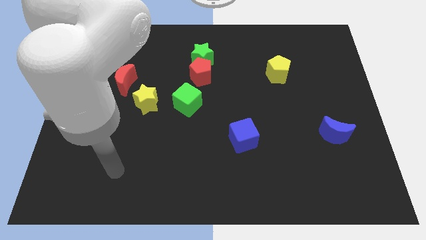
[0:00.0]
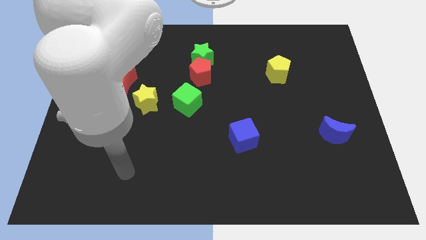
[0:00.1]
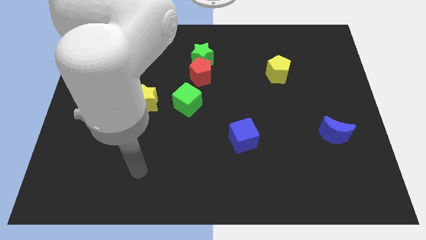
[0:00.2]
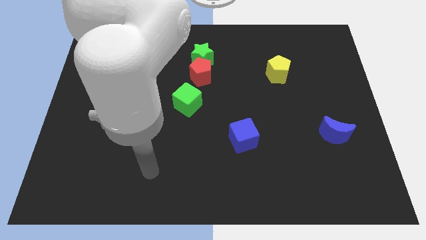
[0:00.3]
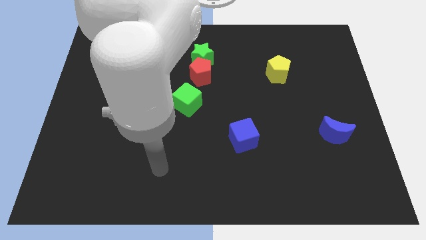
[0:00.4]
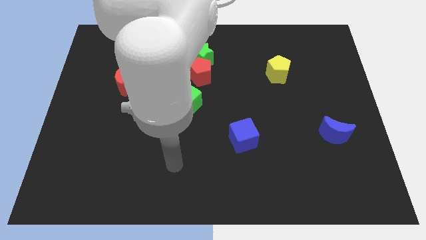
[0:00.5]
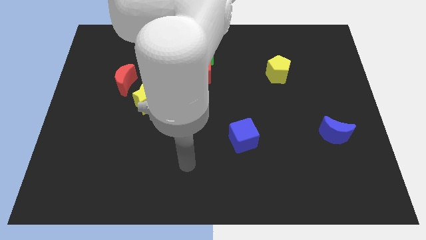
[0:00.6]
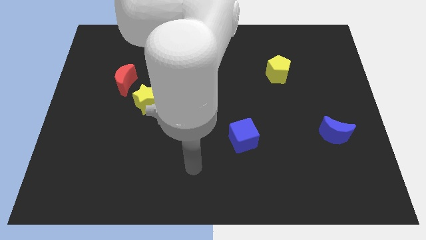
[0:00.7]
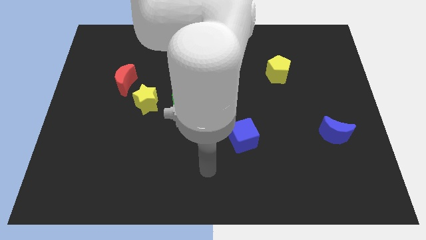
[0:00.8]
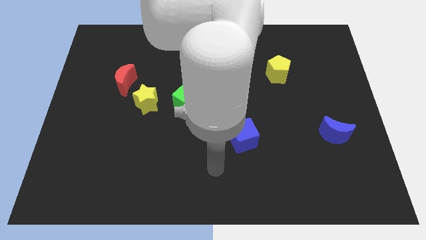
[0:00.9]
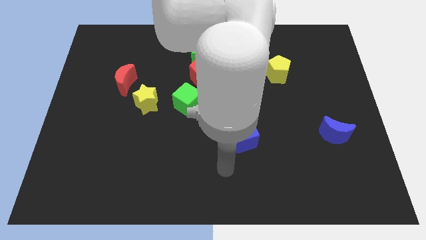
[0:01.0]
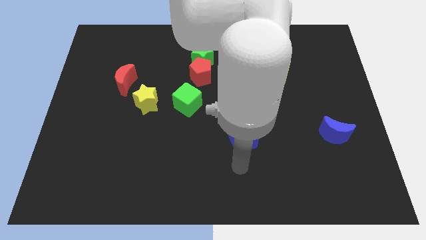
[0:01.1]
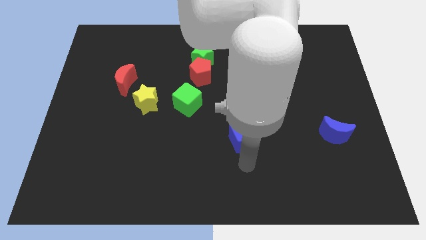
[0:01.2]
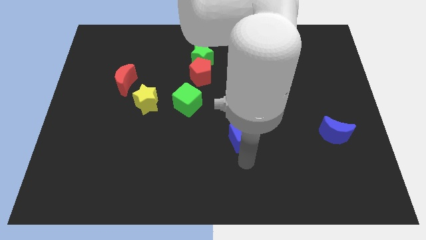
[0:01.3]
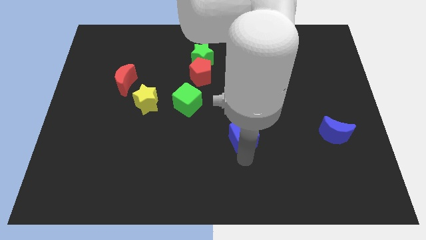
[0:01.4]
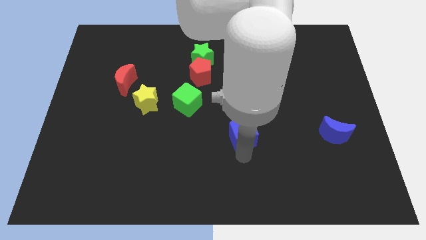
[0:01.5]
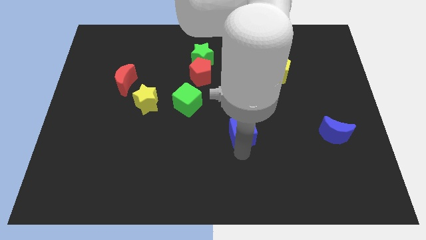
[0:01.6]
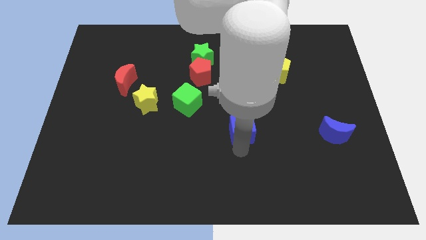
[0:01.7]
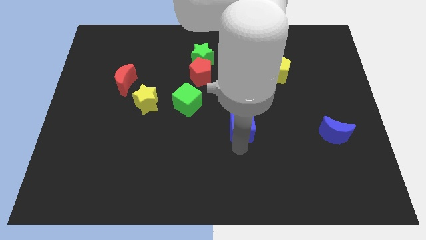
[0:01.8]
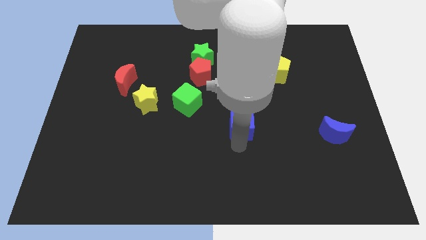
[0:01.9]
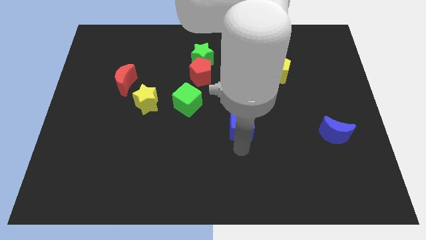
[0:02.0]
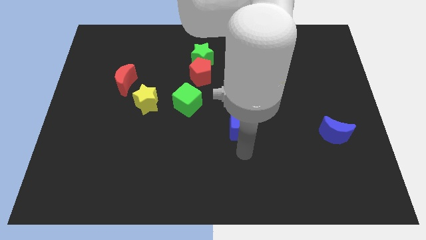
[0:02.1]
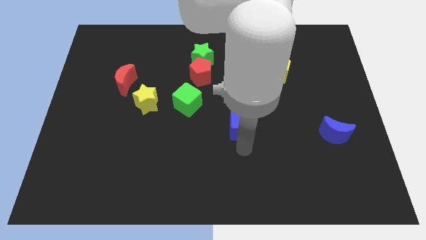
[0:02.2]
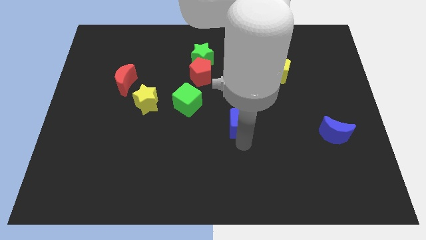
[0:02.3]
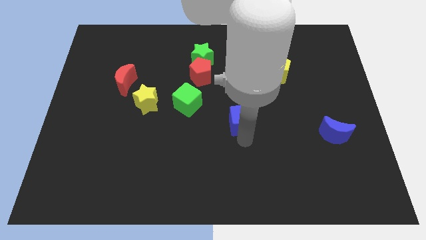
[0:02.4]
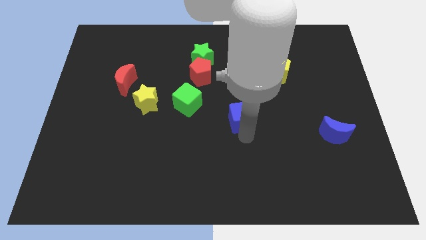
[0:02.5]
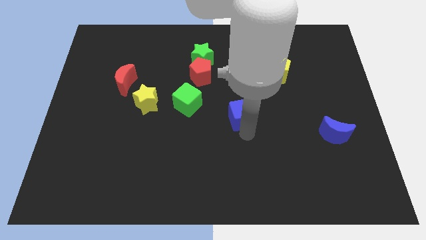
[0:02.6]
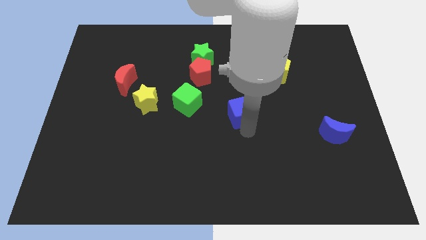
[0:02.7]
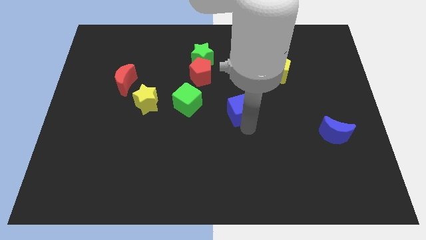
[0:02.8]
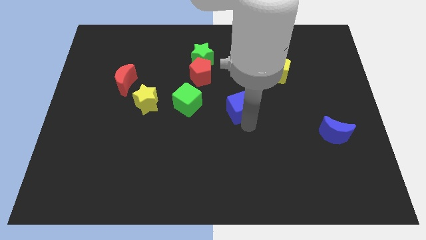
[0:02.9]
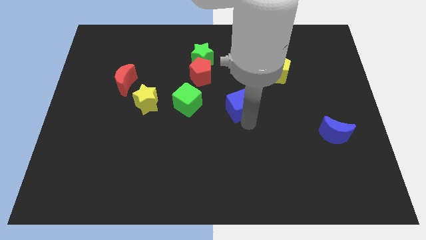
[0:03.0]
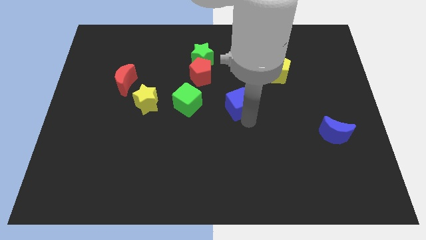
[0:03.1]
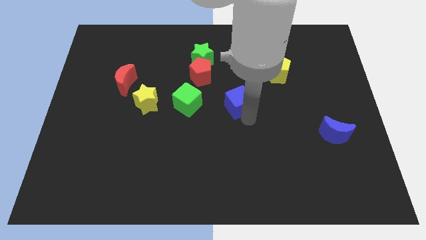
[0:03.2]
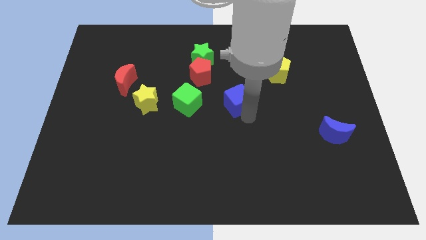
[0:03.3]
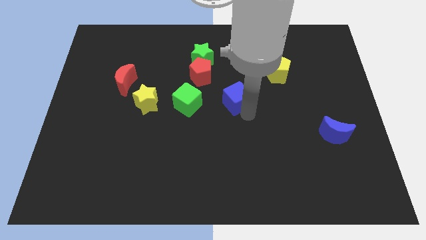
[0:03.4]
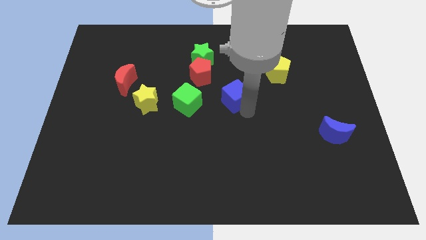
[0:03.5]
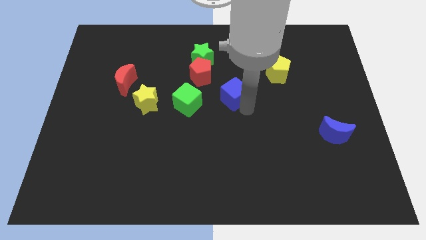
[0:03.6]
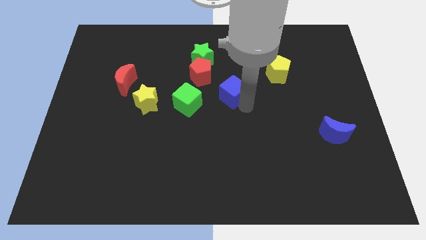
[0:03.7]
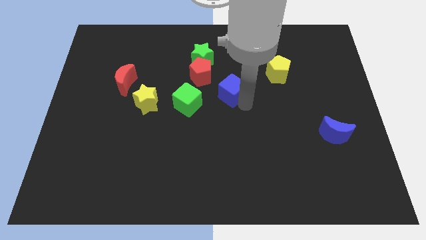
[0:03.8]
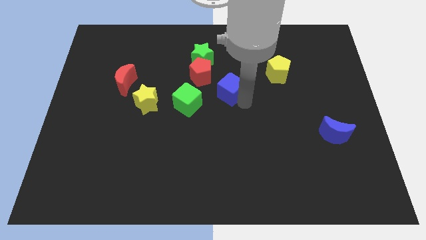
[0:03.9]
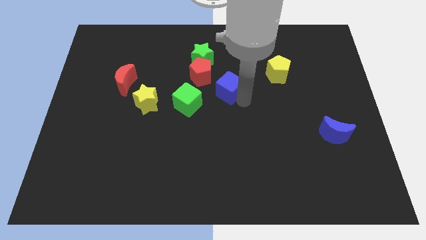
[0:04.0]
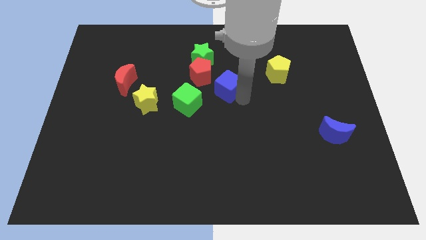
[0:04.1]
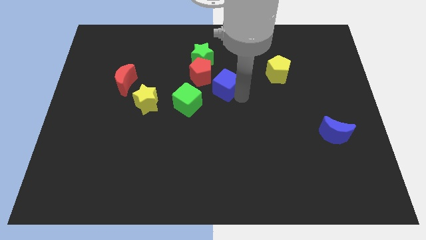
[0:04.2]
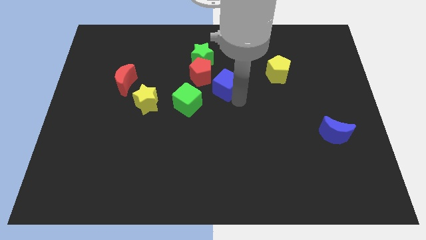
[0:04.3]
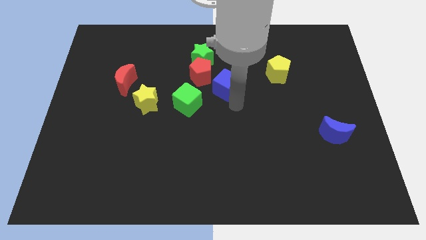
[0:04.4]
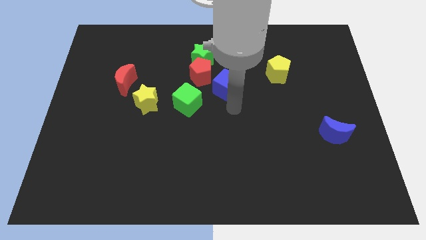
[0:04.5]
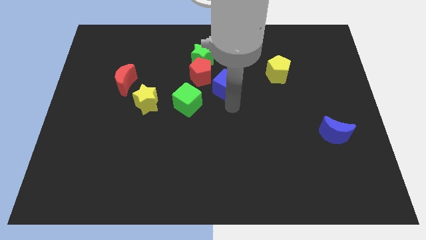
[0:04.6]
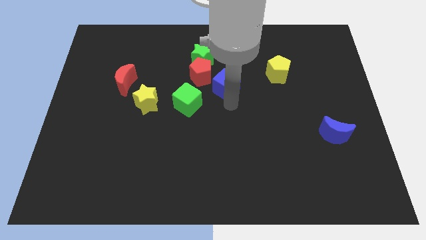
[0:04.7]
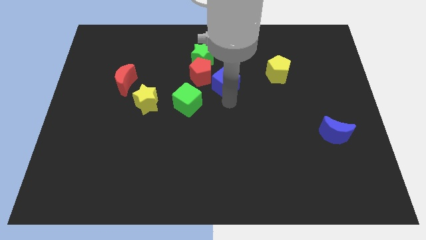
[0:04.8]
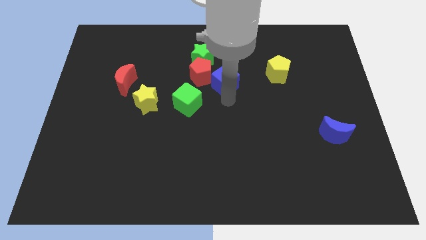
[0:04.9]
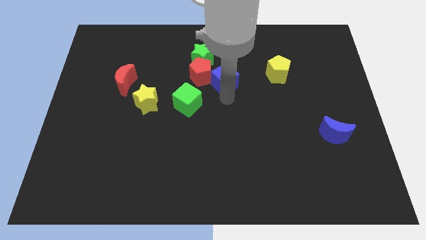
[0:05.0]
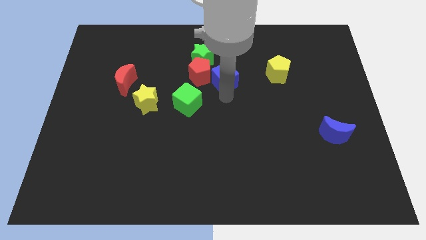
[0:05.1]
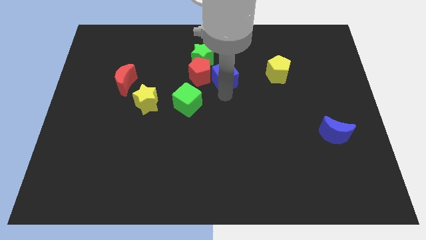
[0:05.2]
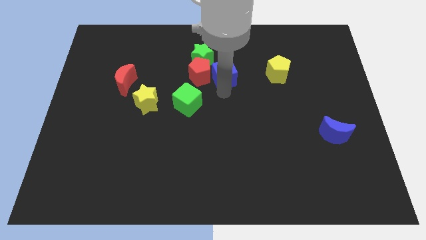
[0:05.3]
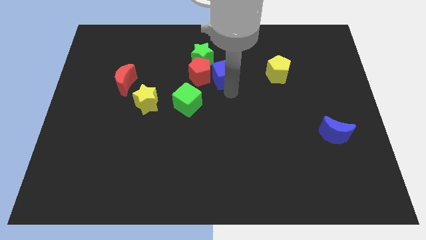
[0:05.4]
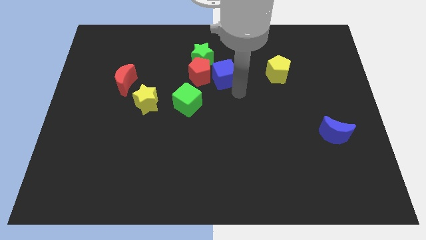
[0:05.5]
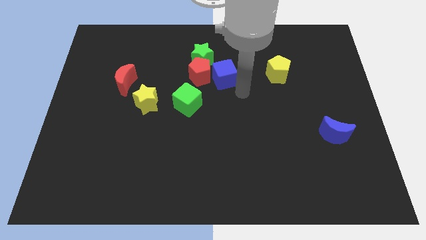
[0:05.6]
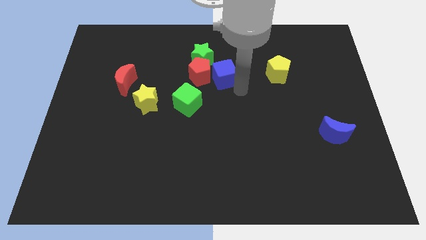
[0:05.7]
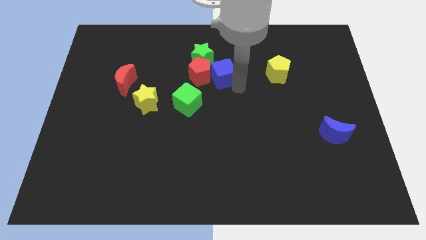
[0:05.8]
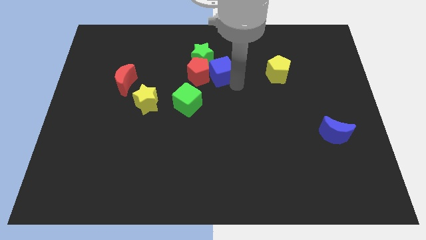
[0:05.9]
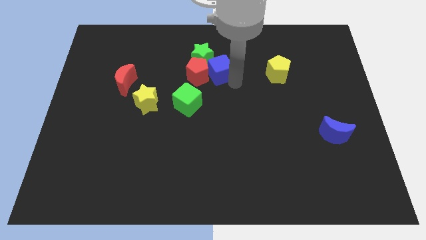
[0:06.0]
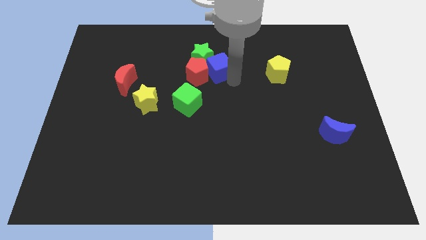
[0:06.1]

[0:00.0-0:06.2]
move the blue cube to the green star

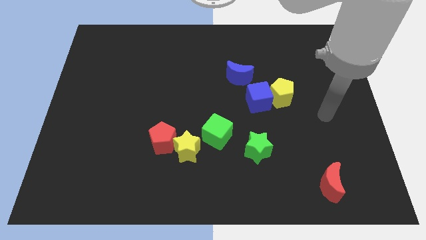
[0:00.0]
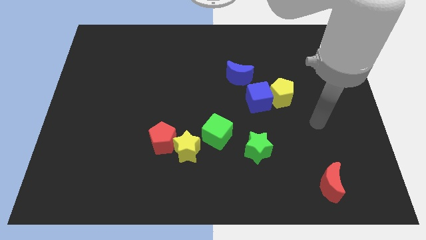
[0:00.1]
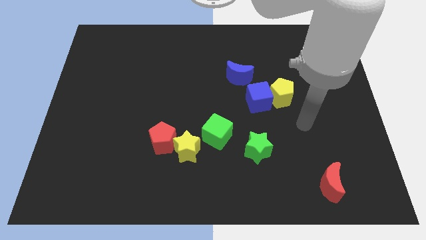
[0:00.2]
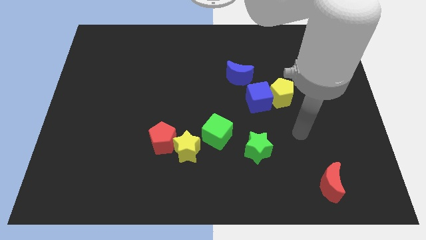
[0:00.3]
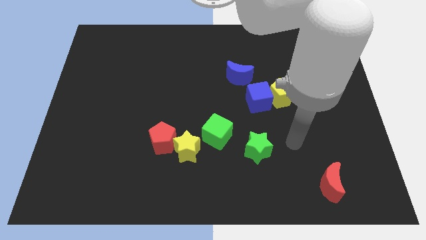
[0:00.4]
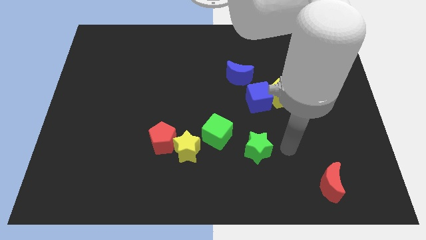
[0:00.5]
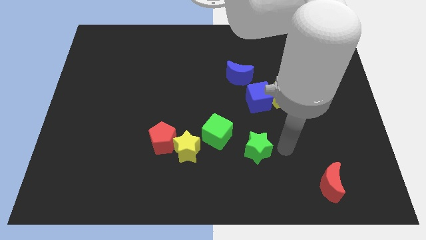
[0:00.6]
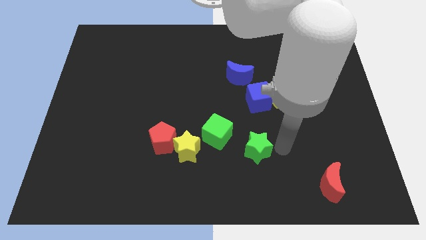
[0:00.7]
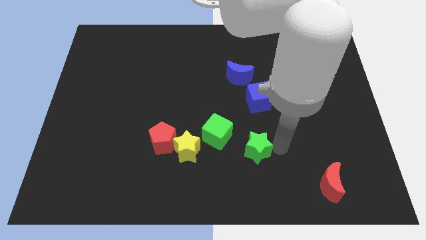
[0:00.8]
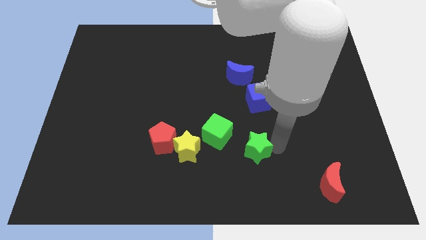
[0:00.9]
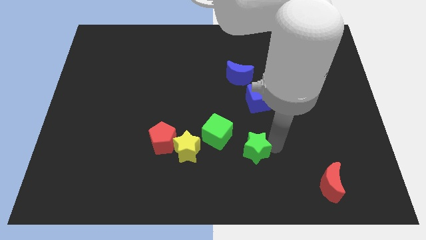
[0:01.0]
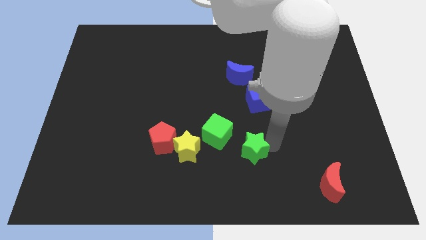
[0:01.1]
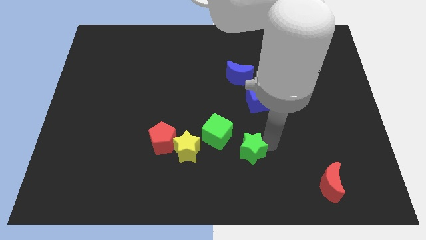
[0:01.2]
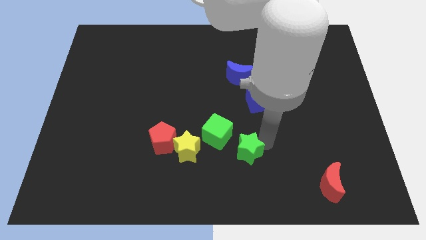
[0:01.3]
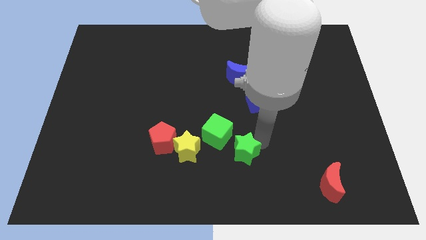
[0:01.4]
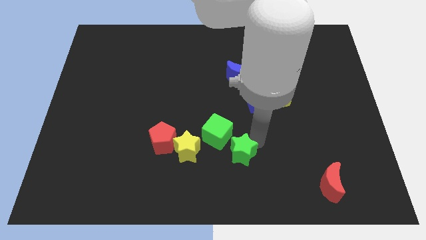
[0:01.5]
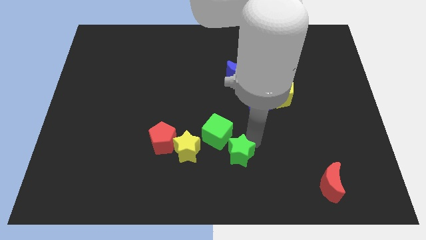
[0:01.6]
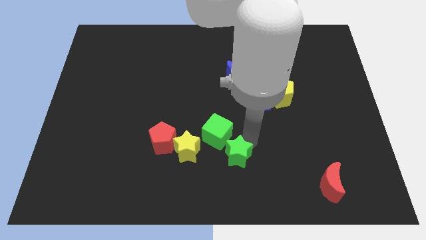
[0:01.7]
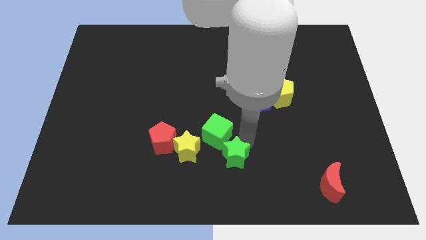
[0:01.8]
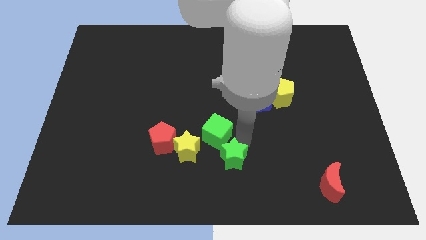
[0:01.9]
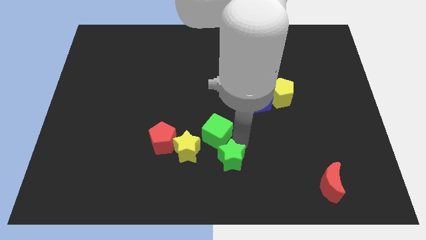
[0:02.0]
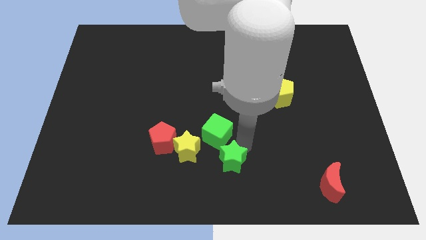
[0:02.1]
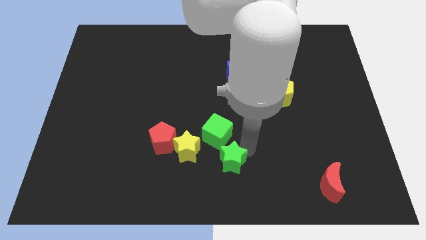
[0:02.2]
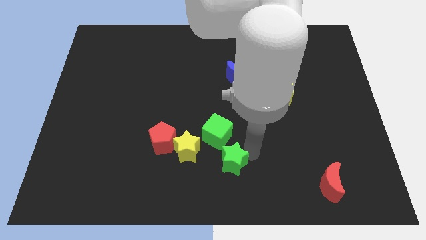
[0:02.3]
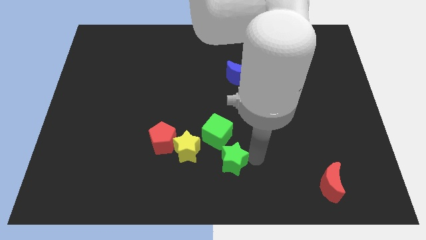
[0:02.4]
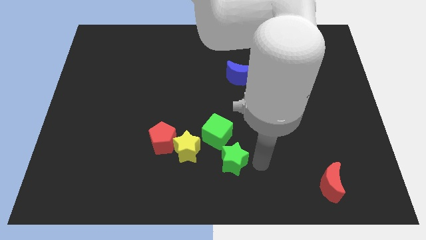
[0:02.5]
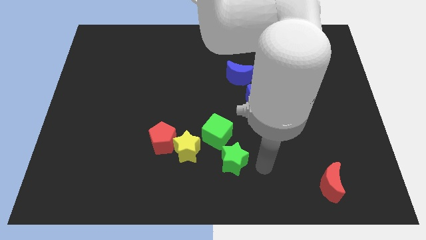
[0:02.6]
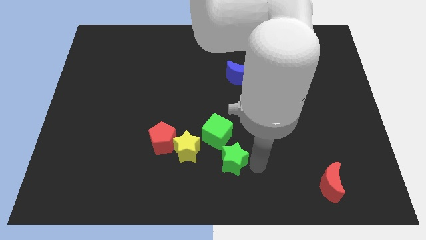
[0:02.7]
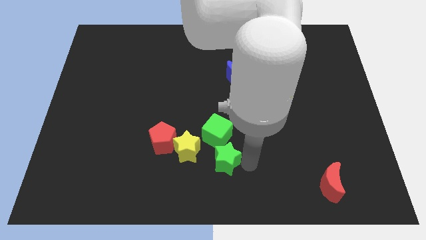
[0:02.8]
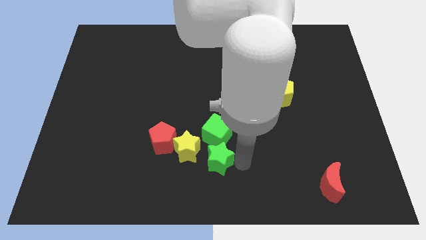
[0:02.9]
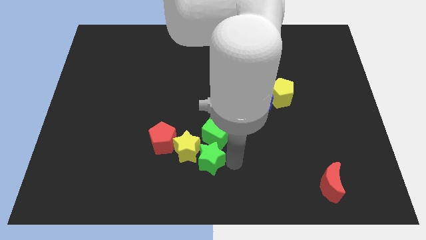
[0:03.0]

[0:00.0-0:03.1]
move the green star towards the yellow star
